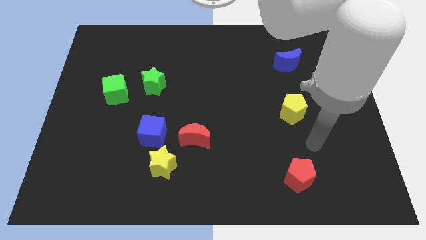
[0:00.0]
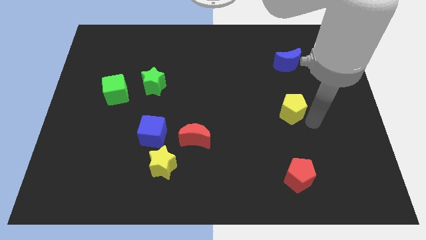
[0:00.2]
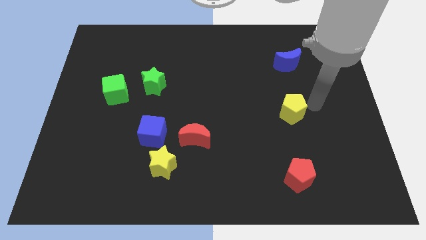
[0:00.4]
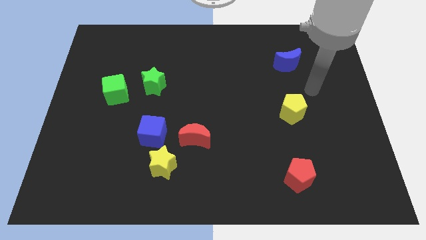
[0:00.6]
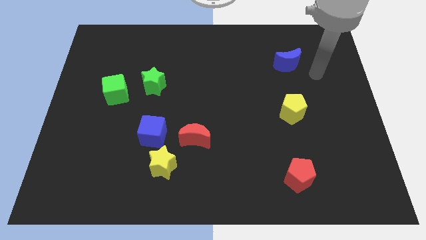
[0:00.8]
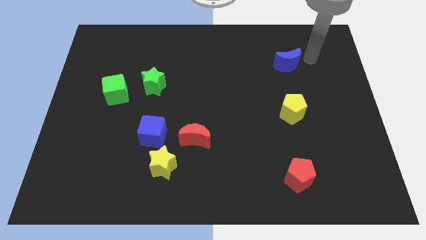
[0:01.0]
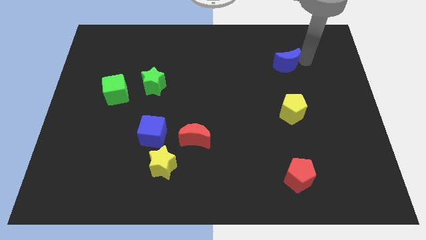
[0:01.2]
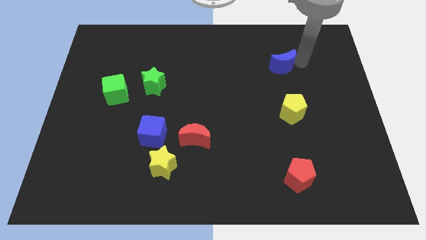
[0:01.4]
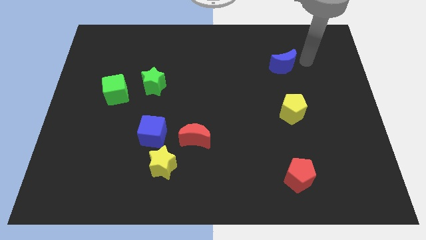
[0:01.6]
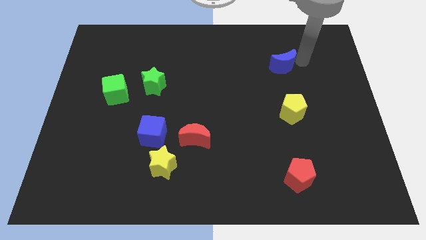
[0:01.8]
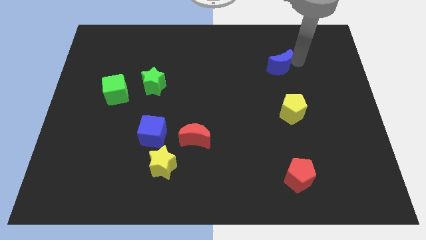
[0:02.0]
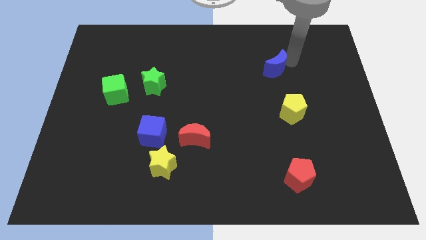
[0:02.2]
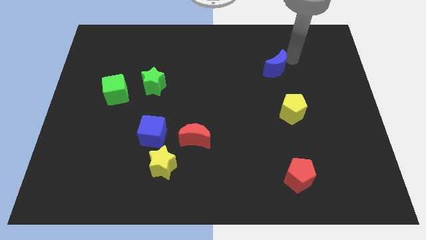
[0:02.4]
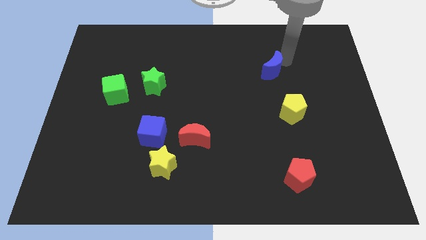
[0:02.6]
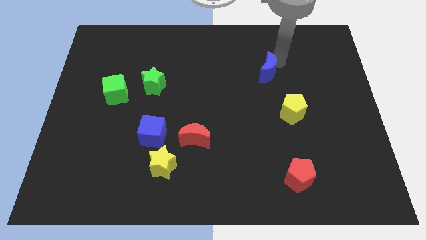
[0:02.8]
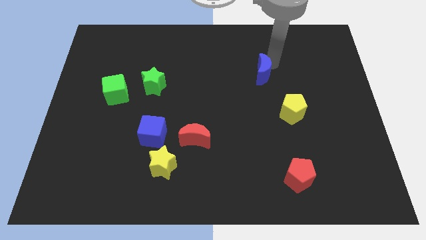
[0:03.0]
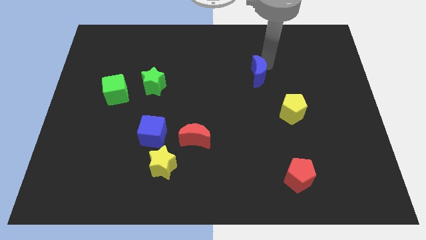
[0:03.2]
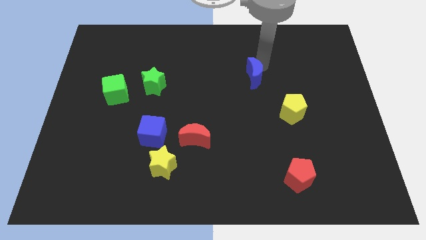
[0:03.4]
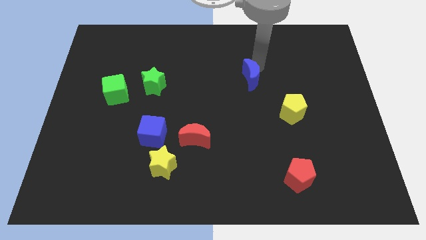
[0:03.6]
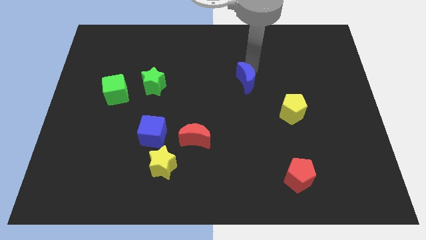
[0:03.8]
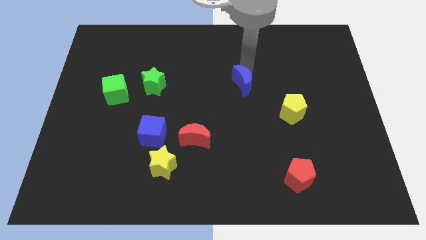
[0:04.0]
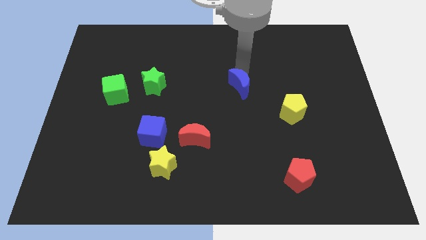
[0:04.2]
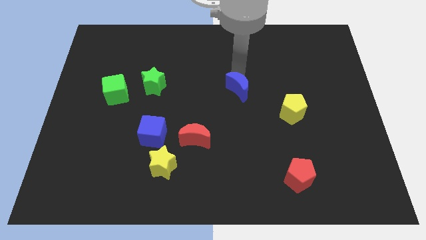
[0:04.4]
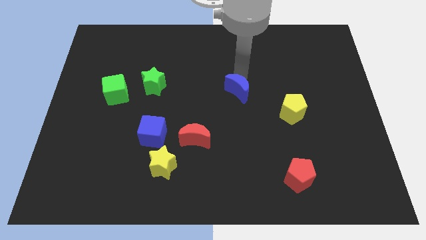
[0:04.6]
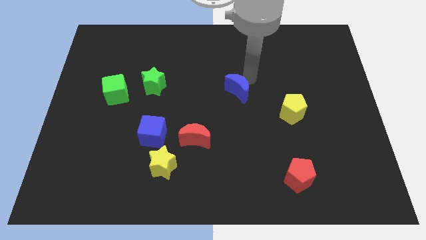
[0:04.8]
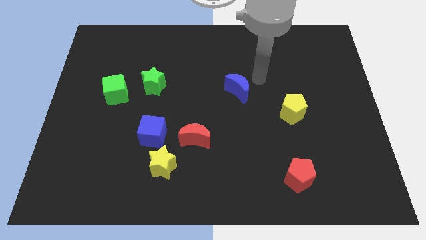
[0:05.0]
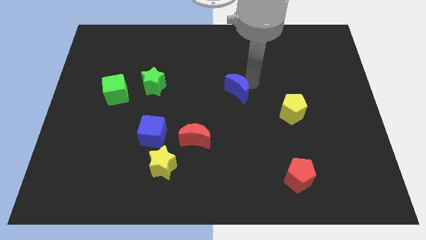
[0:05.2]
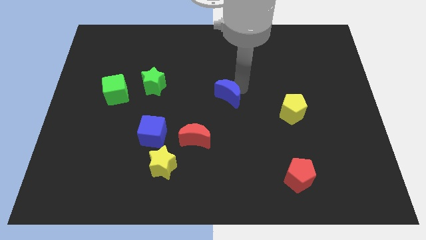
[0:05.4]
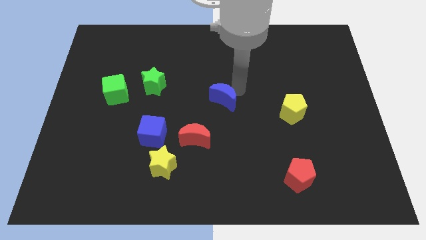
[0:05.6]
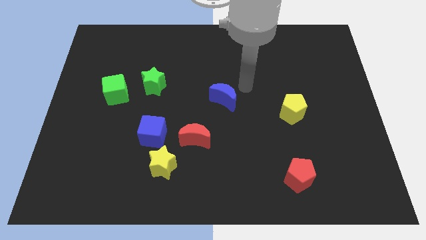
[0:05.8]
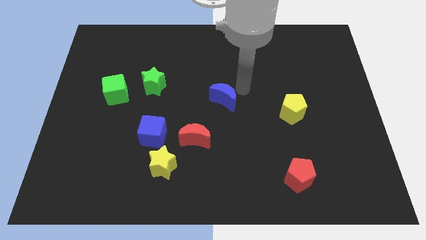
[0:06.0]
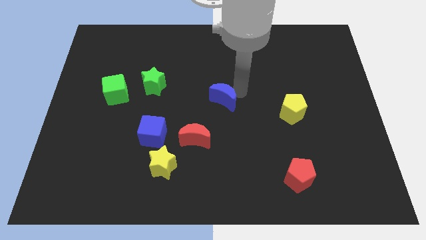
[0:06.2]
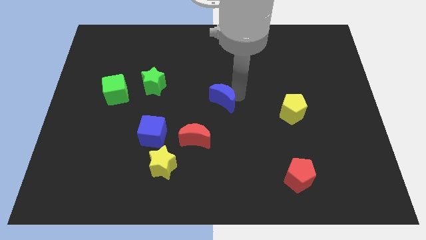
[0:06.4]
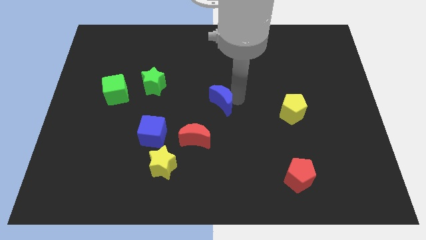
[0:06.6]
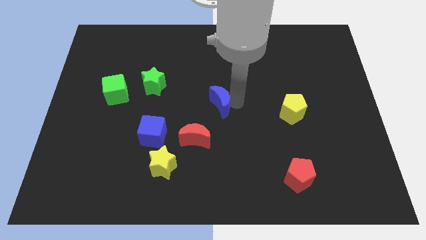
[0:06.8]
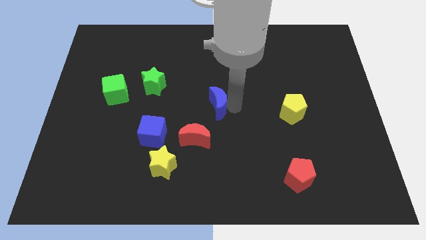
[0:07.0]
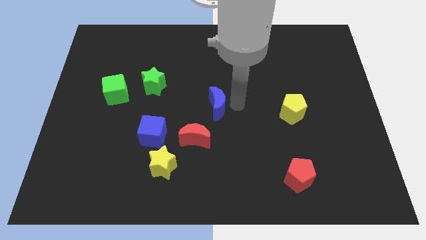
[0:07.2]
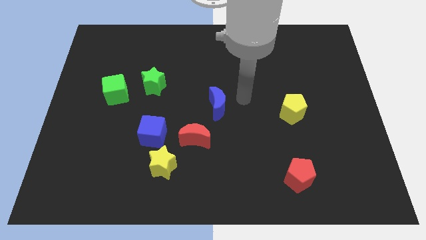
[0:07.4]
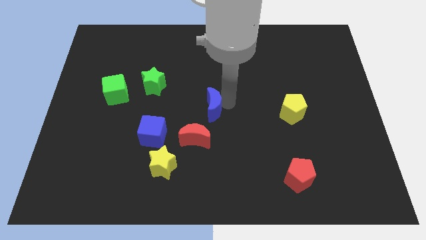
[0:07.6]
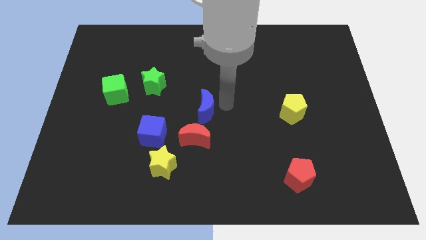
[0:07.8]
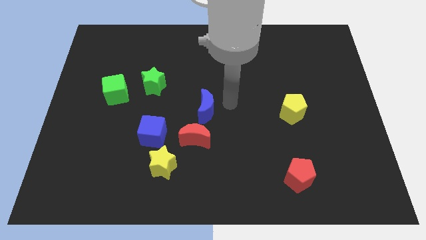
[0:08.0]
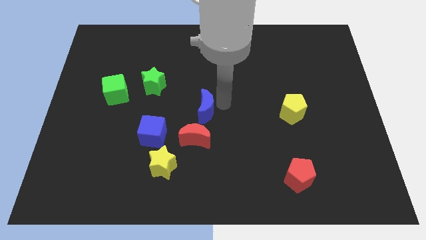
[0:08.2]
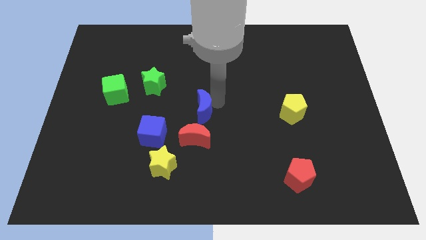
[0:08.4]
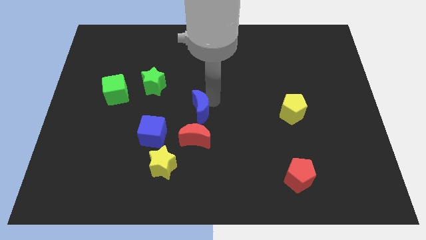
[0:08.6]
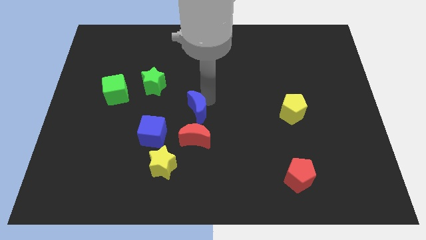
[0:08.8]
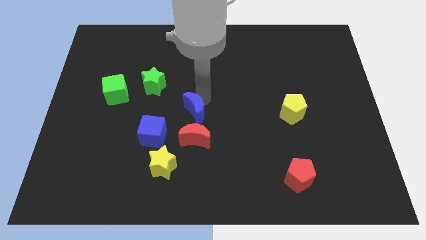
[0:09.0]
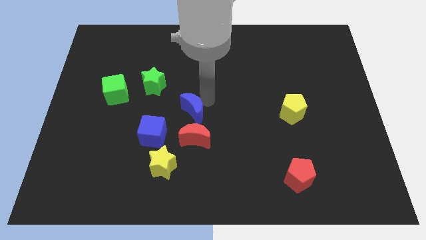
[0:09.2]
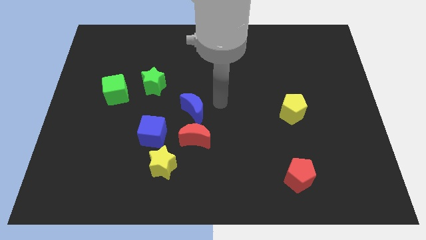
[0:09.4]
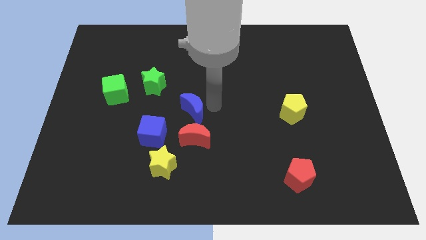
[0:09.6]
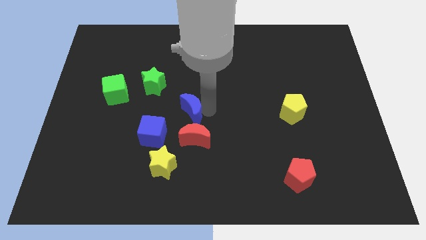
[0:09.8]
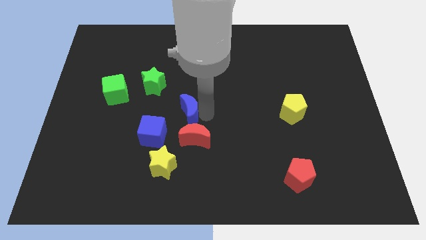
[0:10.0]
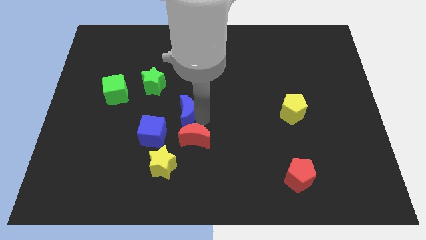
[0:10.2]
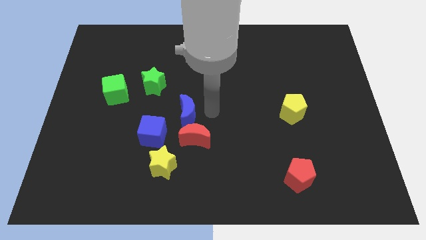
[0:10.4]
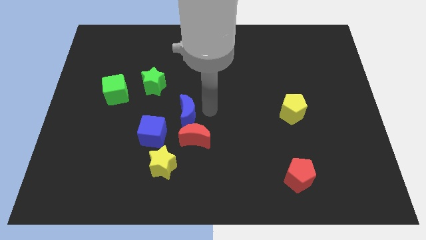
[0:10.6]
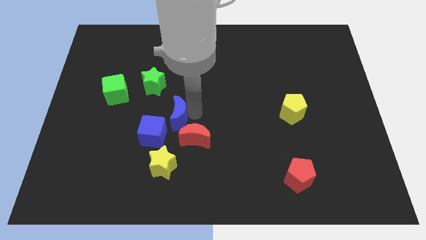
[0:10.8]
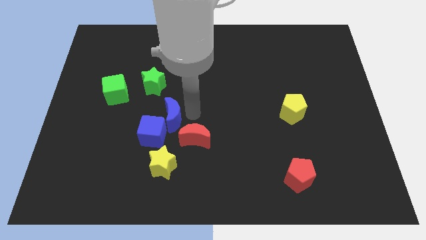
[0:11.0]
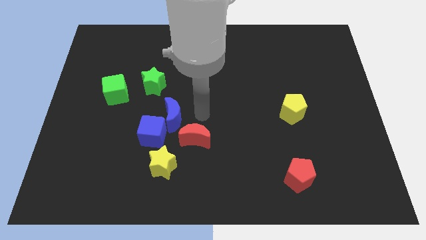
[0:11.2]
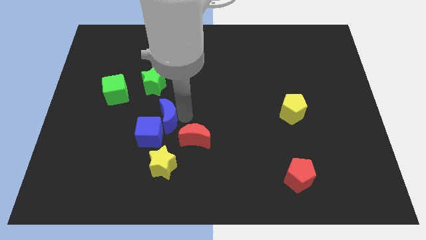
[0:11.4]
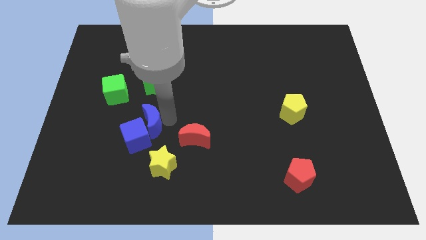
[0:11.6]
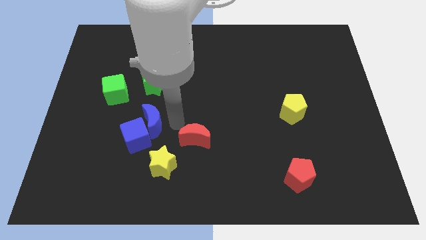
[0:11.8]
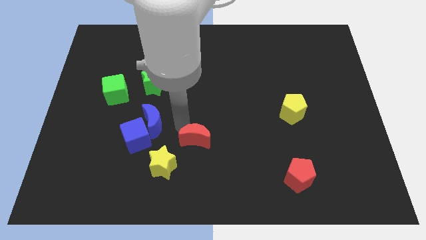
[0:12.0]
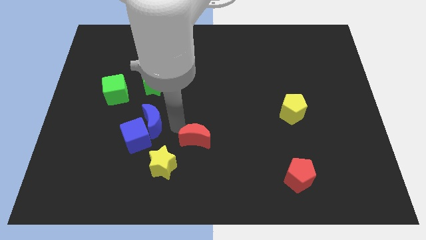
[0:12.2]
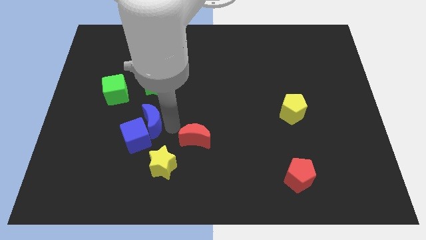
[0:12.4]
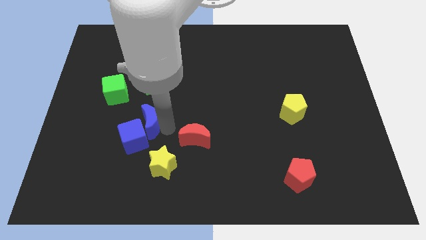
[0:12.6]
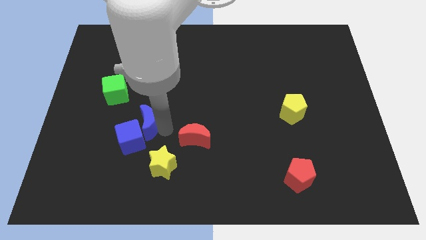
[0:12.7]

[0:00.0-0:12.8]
push the blue moon diagonally up and to the left of the yellow star

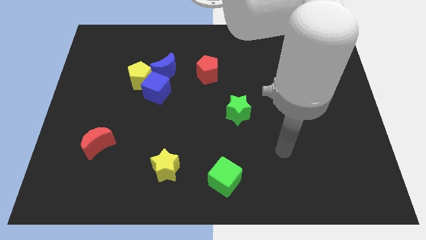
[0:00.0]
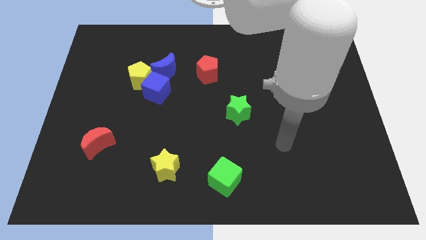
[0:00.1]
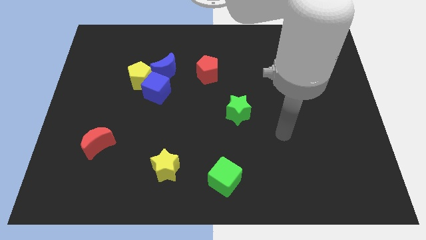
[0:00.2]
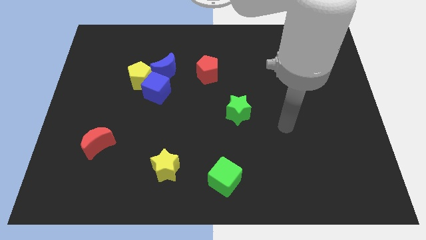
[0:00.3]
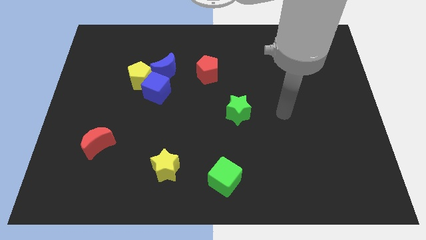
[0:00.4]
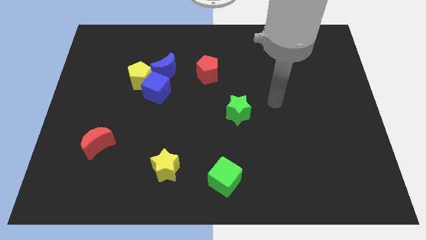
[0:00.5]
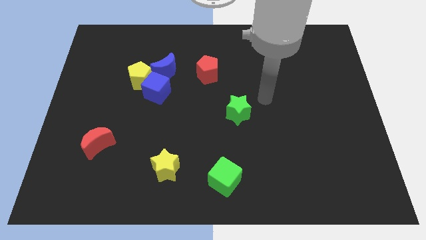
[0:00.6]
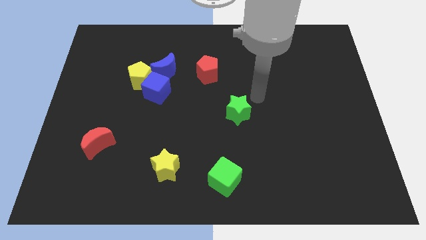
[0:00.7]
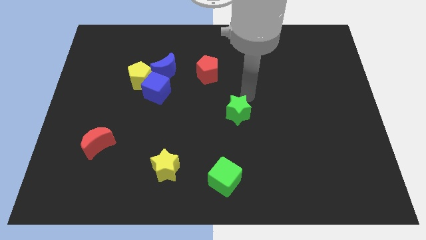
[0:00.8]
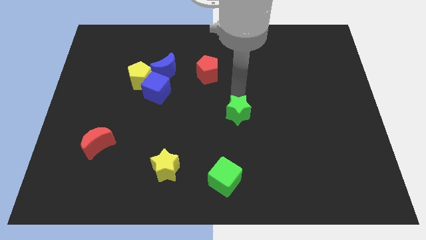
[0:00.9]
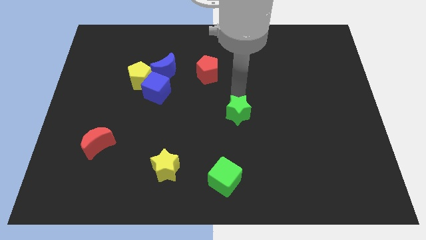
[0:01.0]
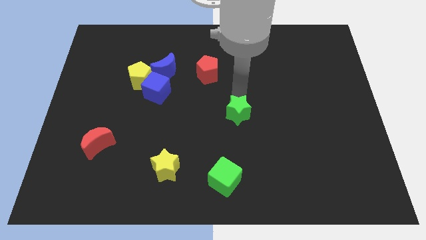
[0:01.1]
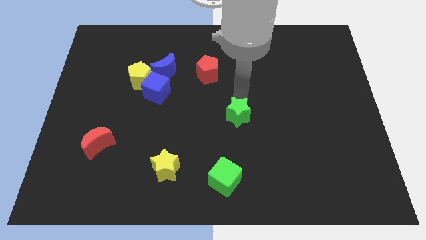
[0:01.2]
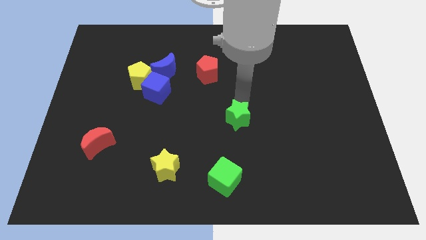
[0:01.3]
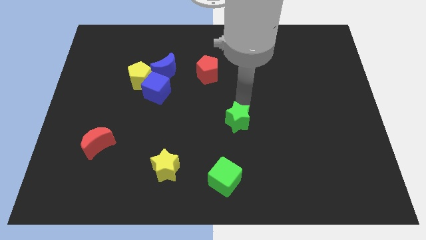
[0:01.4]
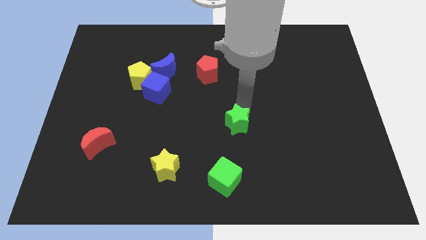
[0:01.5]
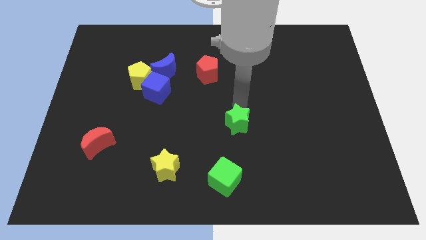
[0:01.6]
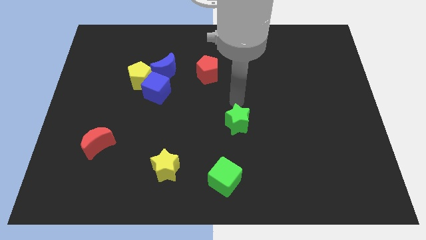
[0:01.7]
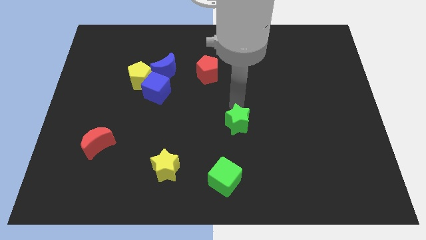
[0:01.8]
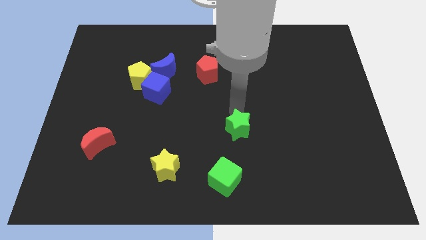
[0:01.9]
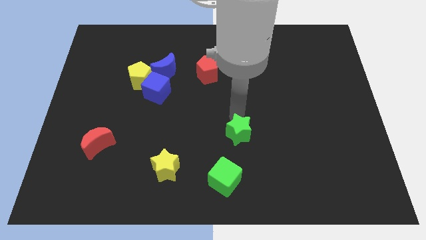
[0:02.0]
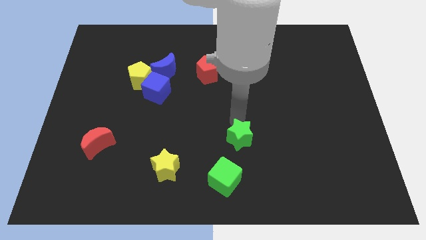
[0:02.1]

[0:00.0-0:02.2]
push the green star diagonally up and to the right of the green cube
